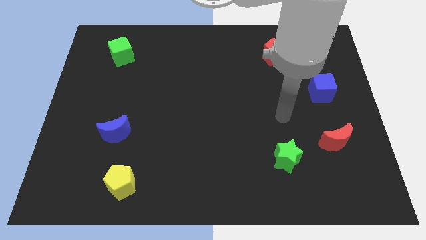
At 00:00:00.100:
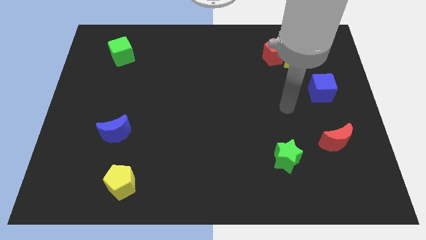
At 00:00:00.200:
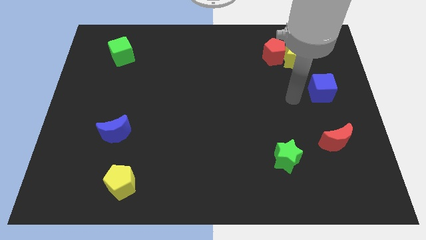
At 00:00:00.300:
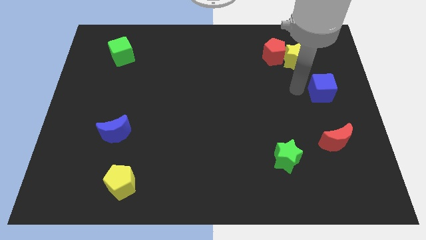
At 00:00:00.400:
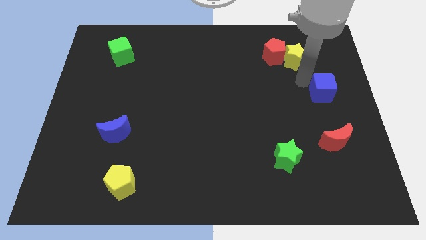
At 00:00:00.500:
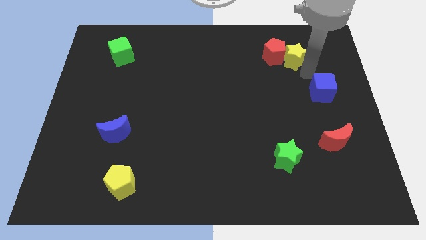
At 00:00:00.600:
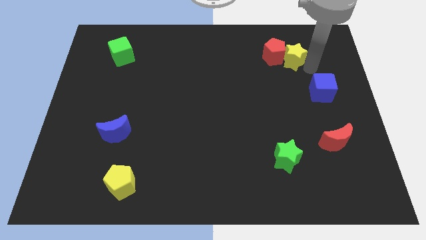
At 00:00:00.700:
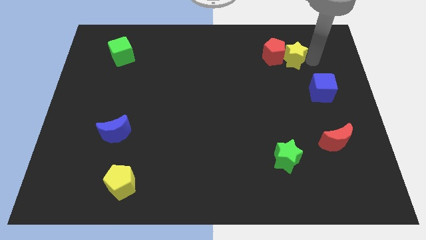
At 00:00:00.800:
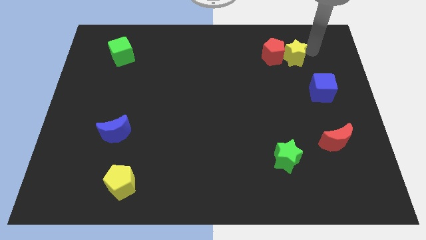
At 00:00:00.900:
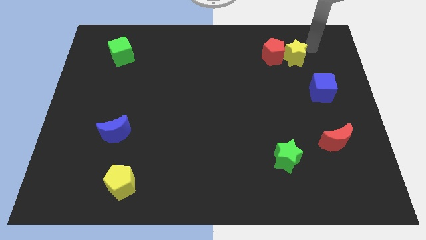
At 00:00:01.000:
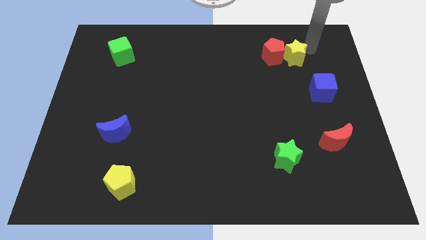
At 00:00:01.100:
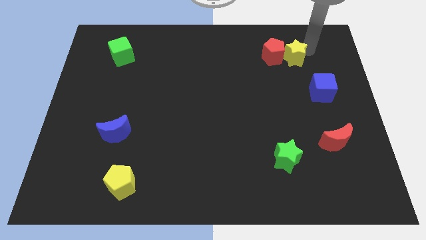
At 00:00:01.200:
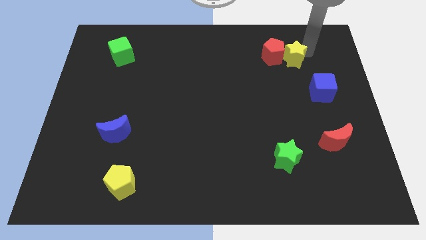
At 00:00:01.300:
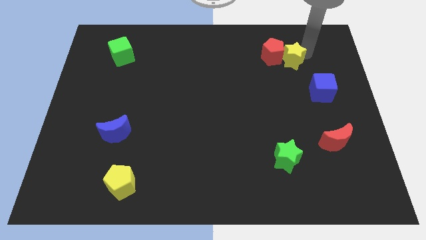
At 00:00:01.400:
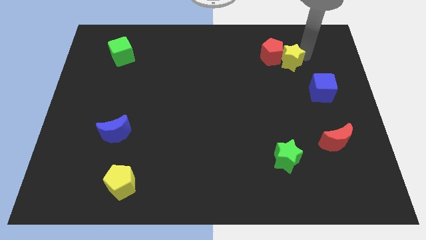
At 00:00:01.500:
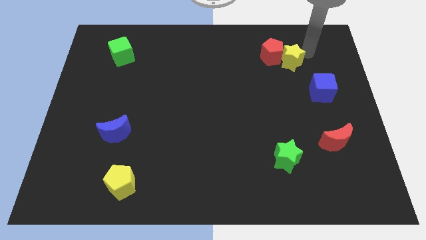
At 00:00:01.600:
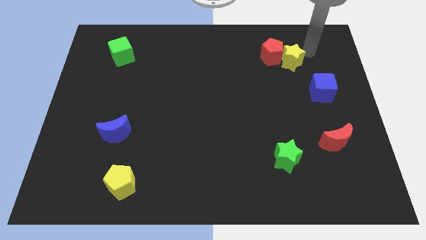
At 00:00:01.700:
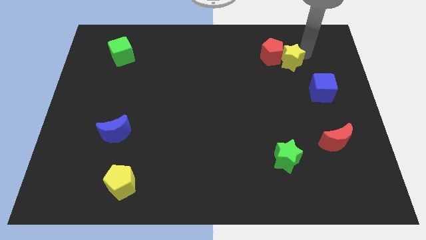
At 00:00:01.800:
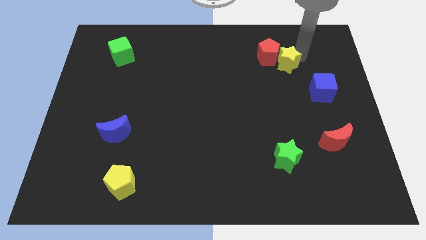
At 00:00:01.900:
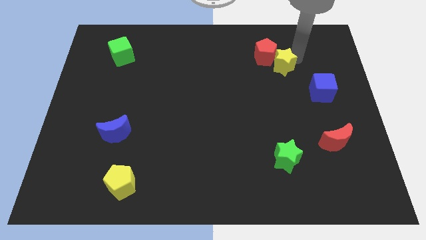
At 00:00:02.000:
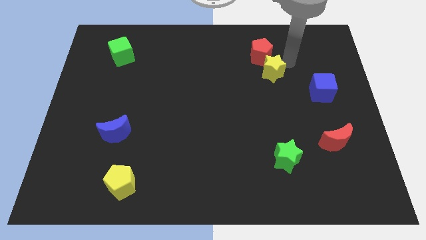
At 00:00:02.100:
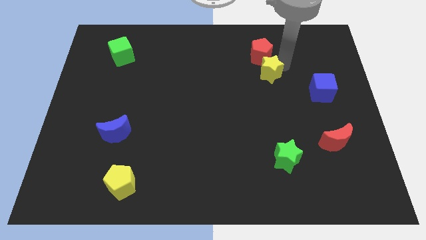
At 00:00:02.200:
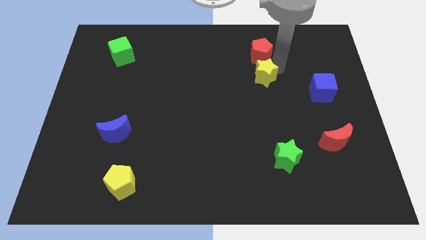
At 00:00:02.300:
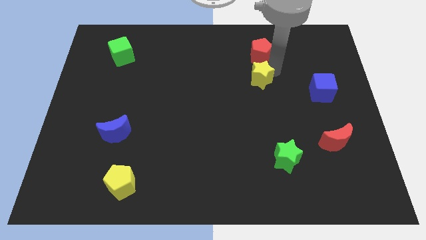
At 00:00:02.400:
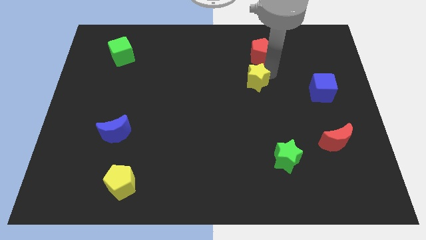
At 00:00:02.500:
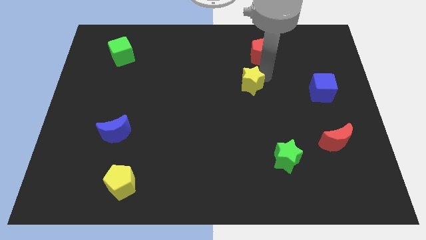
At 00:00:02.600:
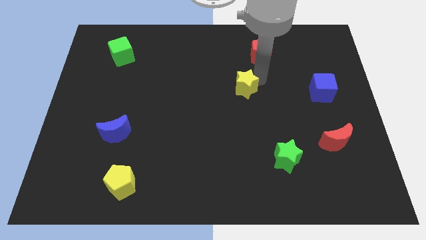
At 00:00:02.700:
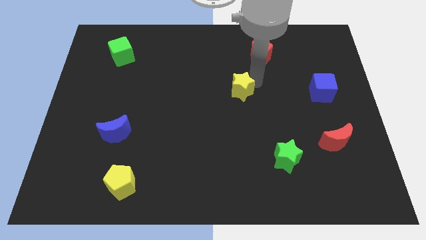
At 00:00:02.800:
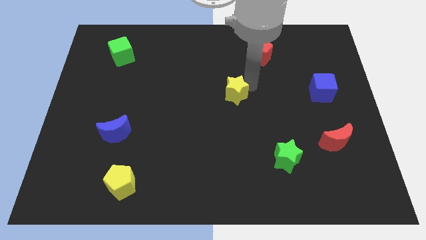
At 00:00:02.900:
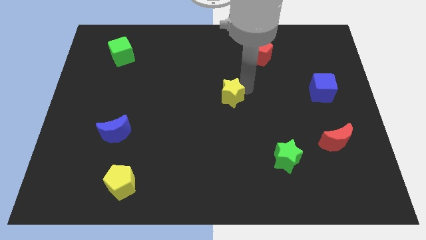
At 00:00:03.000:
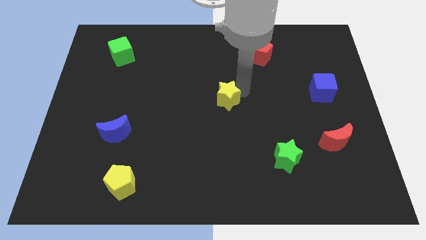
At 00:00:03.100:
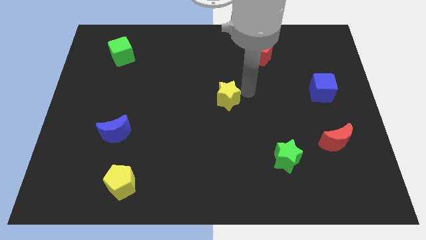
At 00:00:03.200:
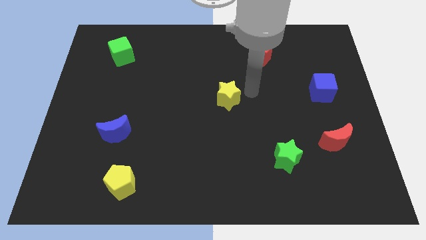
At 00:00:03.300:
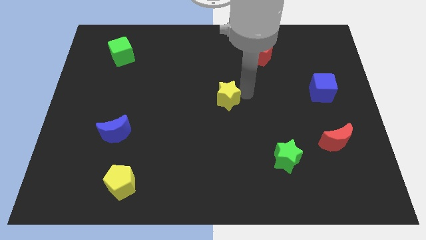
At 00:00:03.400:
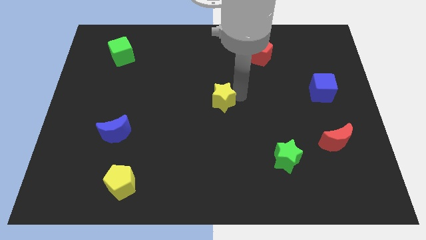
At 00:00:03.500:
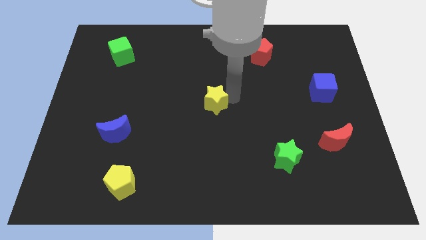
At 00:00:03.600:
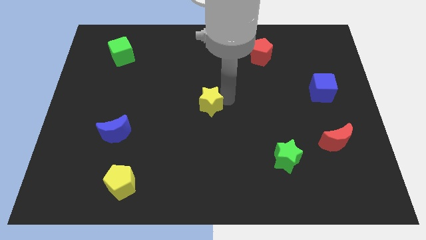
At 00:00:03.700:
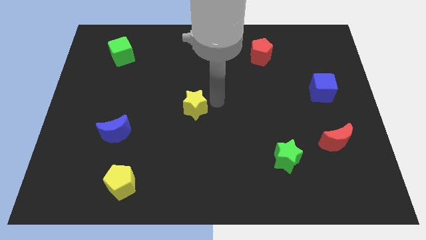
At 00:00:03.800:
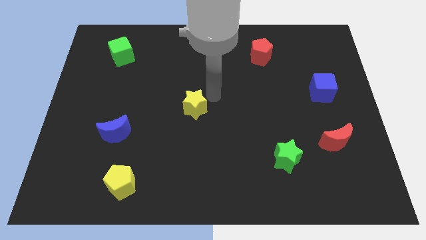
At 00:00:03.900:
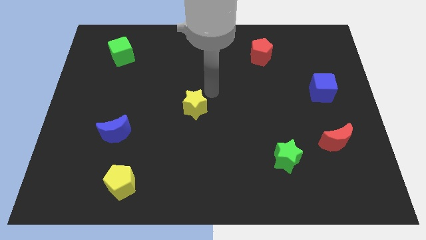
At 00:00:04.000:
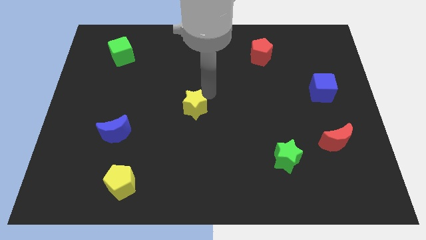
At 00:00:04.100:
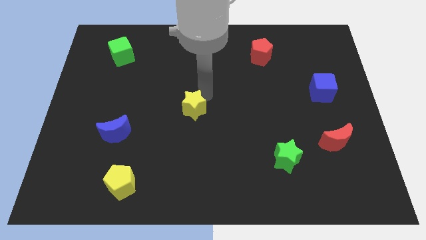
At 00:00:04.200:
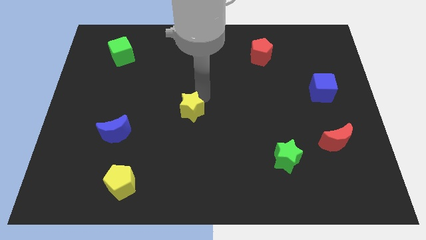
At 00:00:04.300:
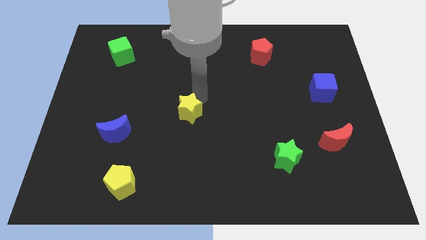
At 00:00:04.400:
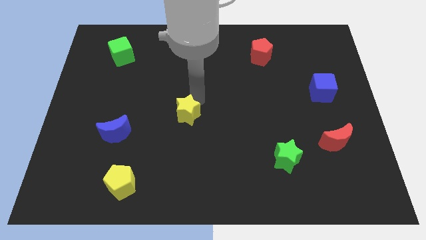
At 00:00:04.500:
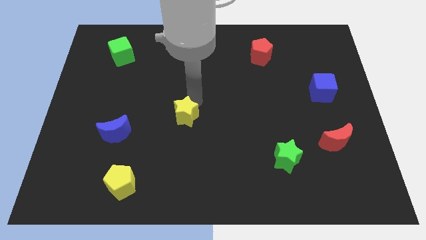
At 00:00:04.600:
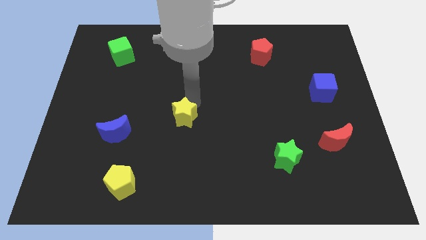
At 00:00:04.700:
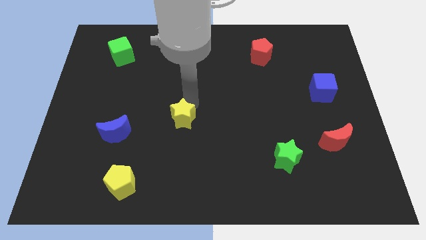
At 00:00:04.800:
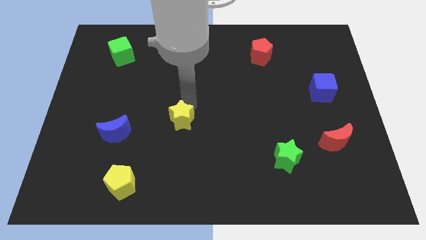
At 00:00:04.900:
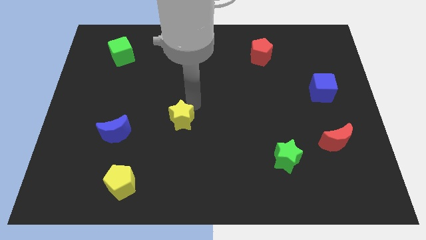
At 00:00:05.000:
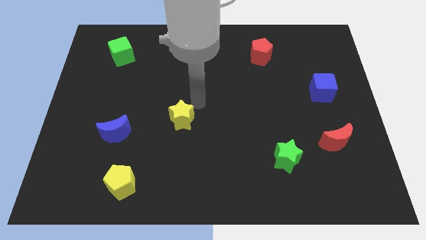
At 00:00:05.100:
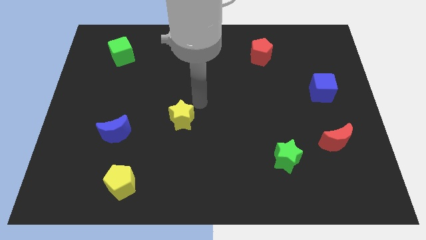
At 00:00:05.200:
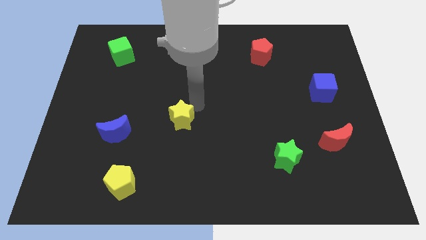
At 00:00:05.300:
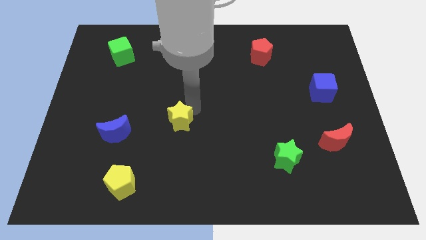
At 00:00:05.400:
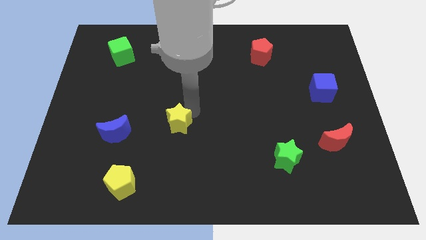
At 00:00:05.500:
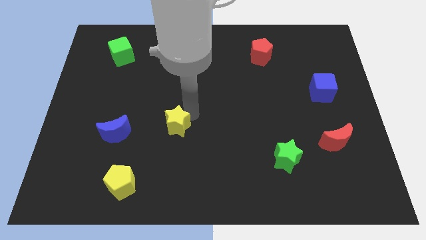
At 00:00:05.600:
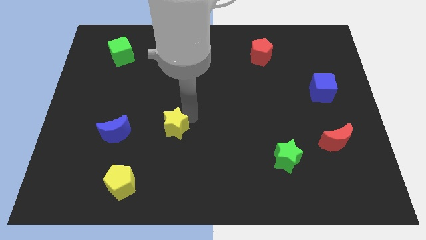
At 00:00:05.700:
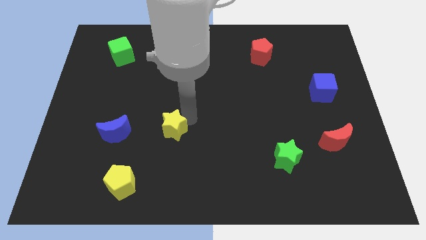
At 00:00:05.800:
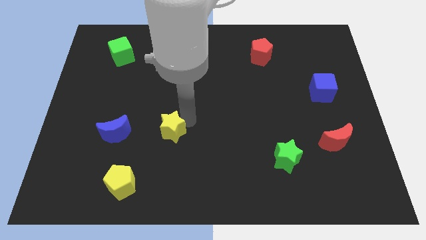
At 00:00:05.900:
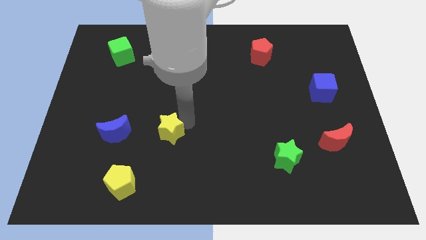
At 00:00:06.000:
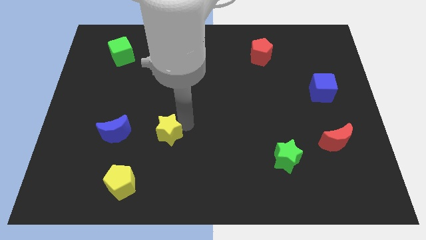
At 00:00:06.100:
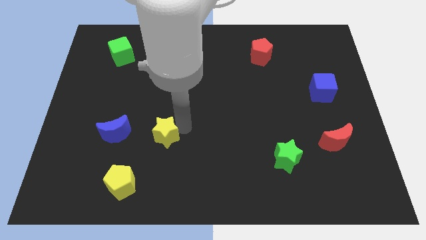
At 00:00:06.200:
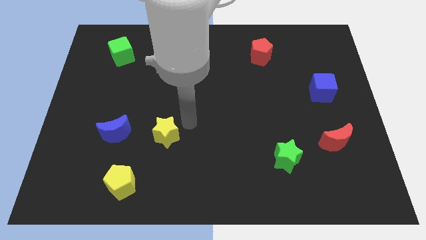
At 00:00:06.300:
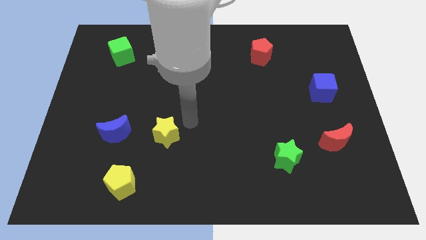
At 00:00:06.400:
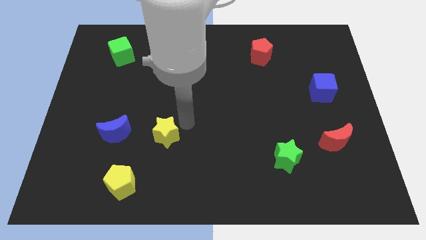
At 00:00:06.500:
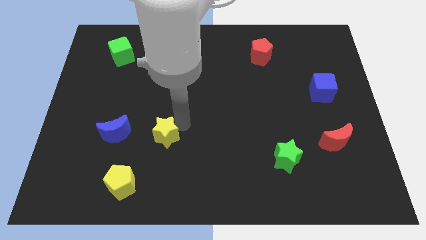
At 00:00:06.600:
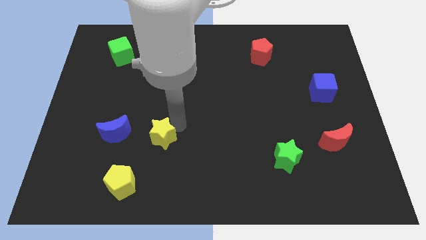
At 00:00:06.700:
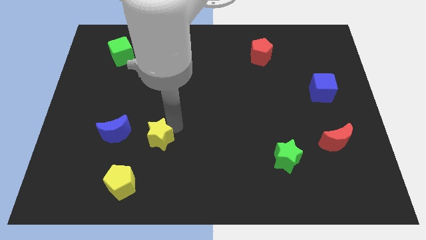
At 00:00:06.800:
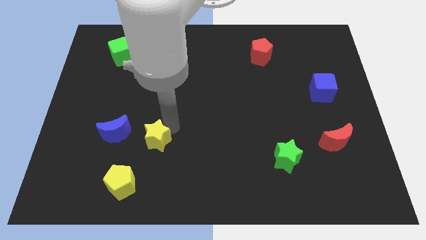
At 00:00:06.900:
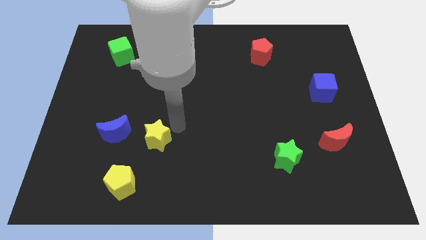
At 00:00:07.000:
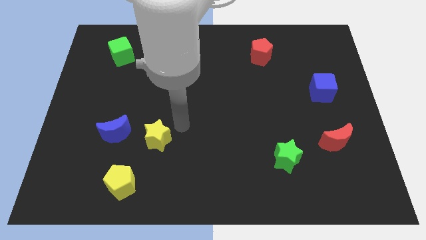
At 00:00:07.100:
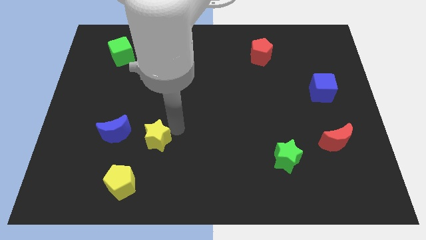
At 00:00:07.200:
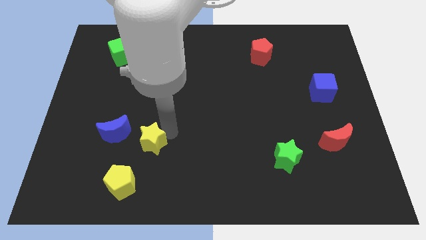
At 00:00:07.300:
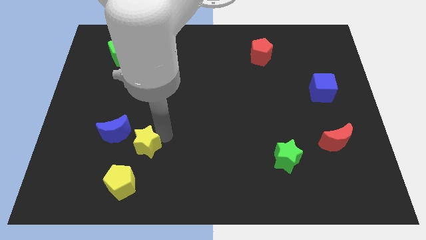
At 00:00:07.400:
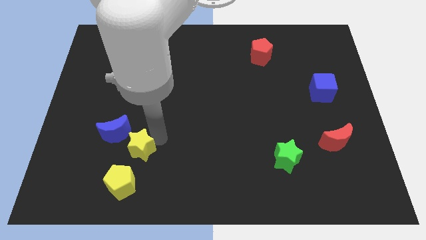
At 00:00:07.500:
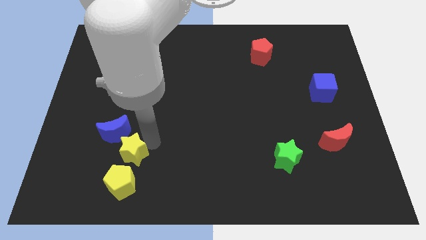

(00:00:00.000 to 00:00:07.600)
slide the yellow star to the bottom side of the blue moon

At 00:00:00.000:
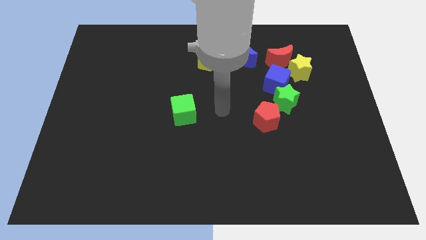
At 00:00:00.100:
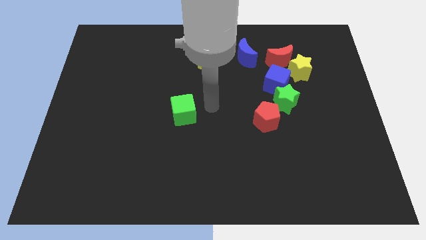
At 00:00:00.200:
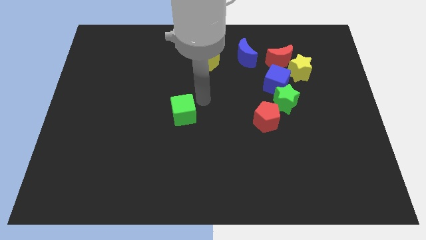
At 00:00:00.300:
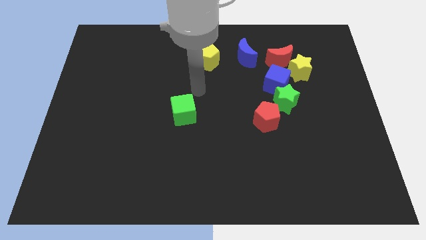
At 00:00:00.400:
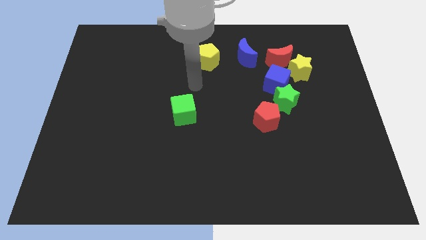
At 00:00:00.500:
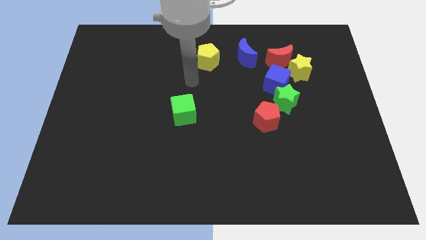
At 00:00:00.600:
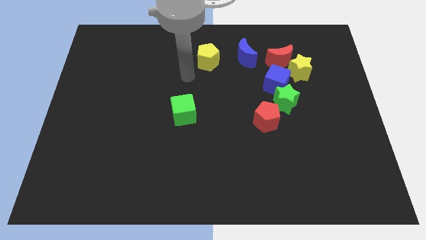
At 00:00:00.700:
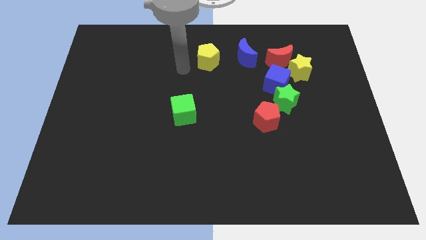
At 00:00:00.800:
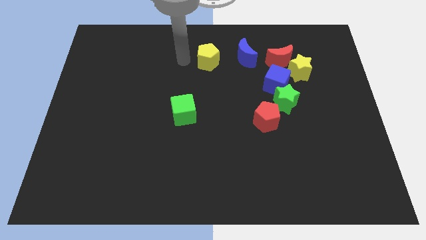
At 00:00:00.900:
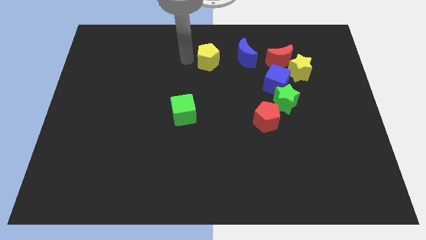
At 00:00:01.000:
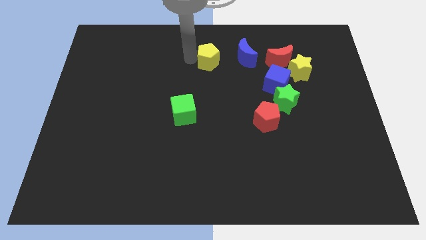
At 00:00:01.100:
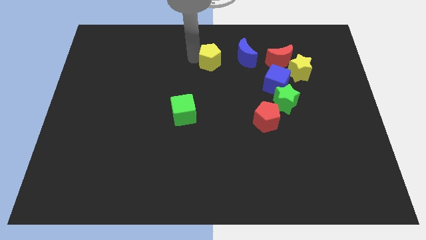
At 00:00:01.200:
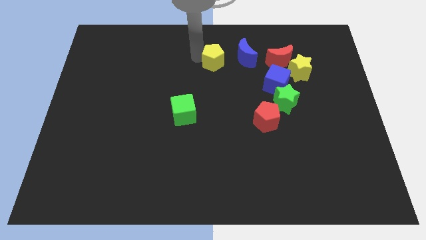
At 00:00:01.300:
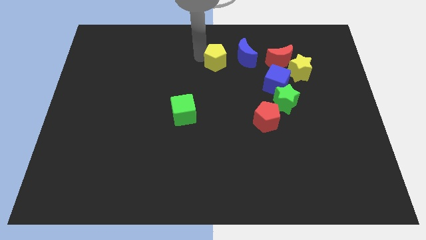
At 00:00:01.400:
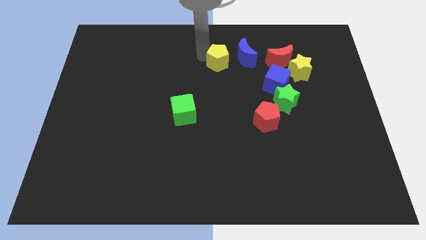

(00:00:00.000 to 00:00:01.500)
push the yellow pentagon to the left of the red moon
